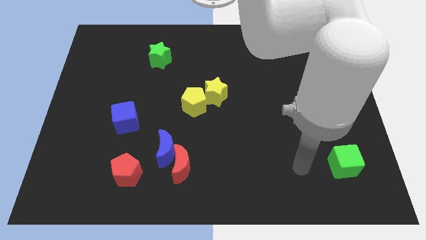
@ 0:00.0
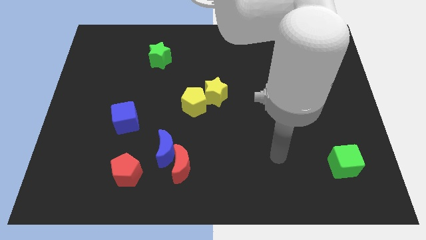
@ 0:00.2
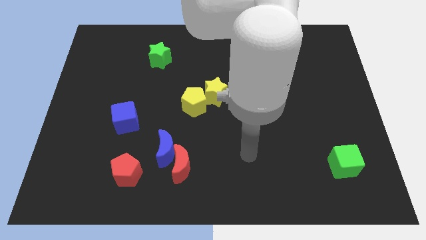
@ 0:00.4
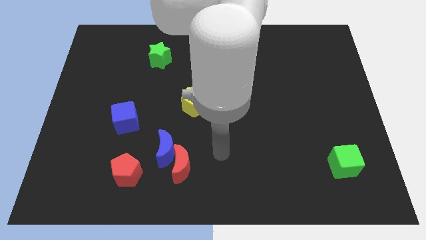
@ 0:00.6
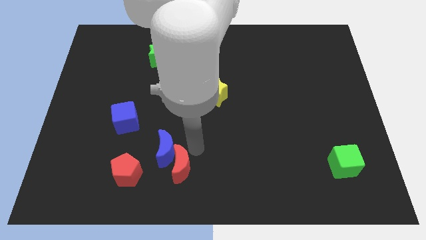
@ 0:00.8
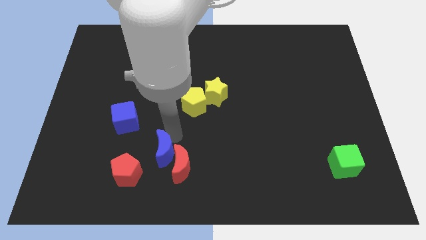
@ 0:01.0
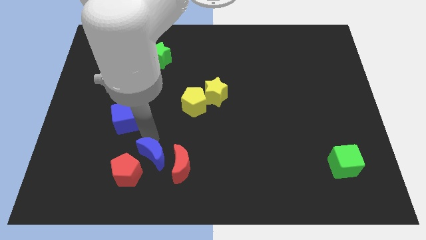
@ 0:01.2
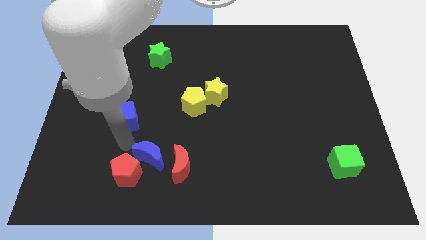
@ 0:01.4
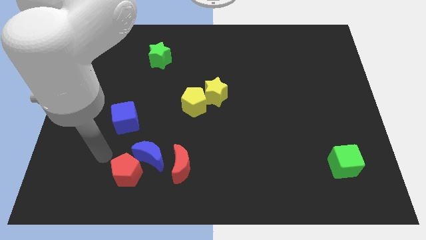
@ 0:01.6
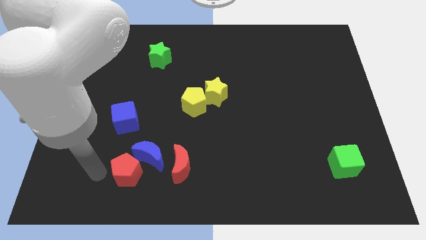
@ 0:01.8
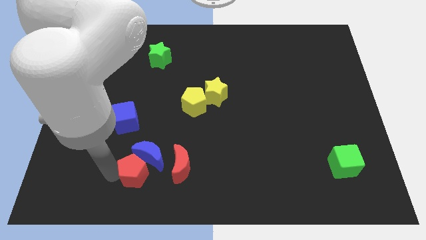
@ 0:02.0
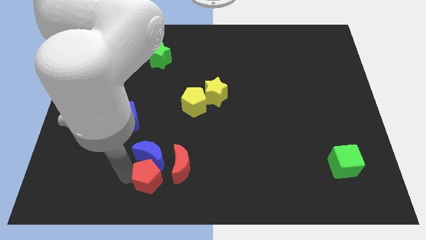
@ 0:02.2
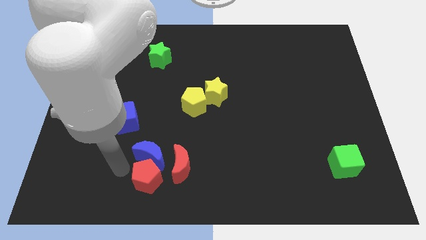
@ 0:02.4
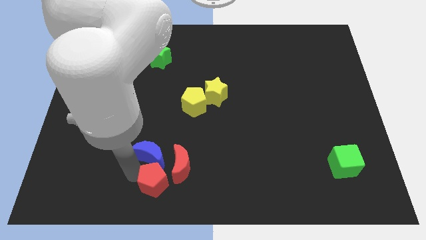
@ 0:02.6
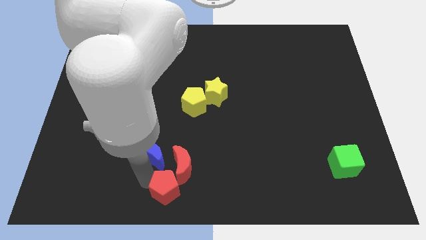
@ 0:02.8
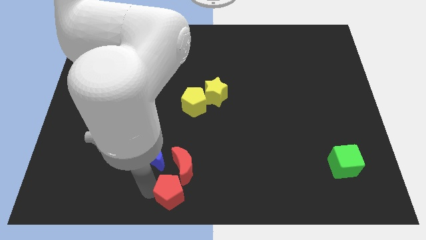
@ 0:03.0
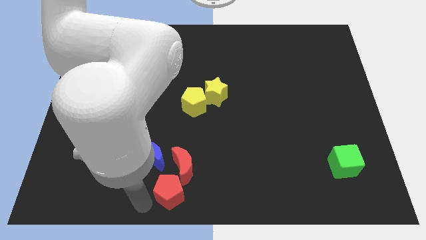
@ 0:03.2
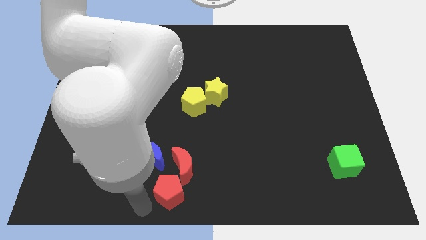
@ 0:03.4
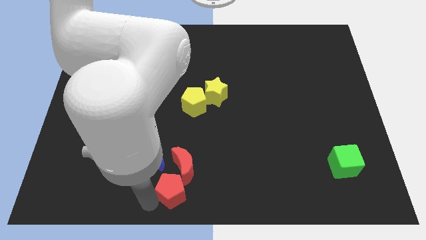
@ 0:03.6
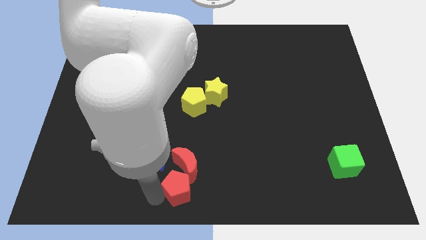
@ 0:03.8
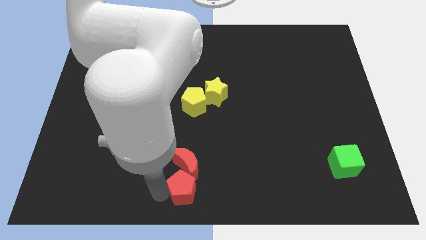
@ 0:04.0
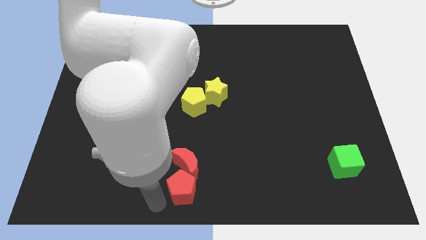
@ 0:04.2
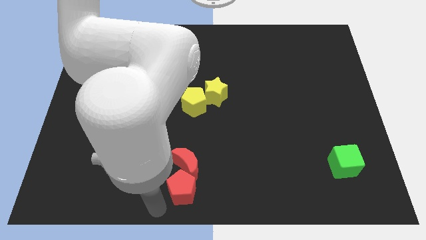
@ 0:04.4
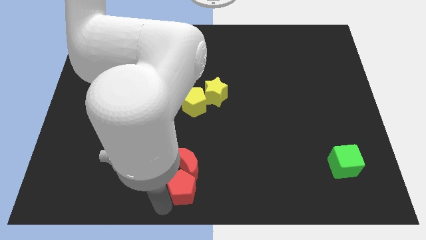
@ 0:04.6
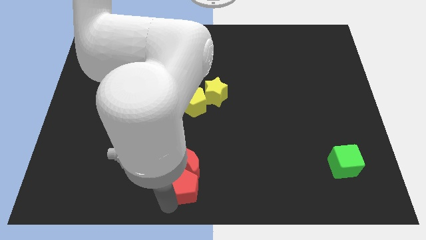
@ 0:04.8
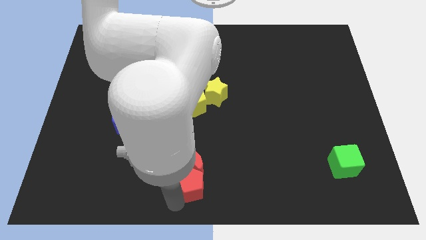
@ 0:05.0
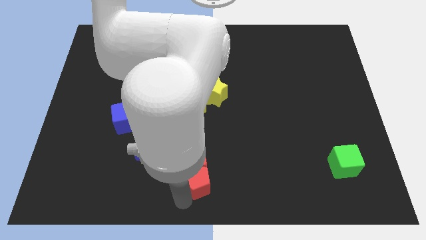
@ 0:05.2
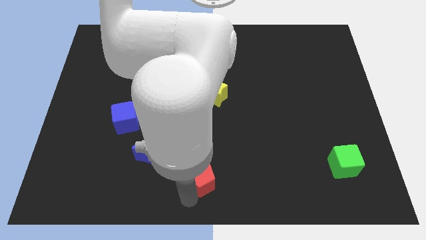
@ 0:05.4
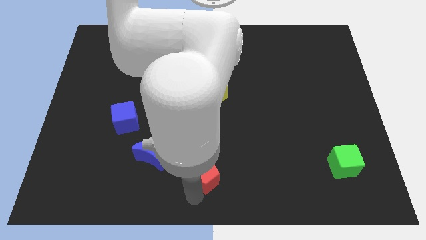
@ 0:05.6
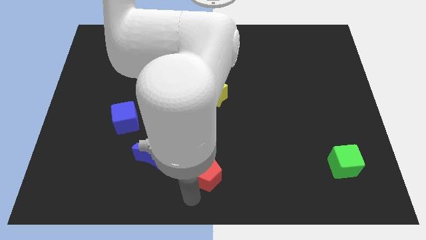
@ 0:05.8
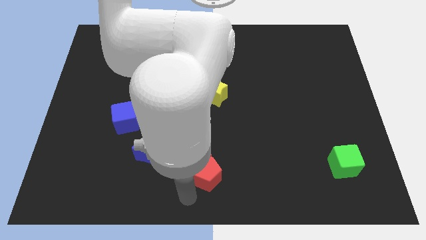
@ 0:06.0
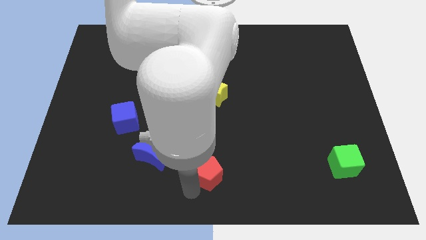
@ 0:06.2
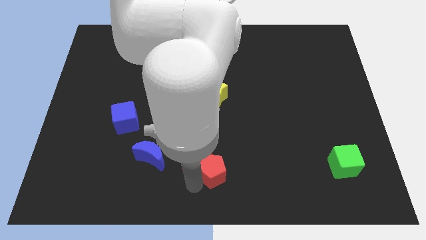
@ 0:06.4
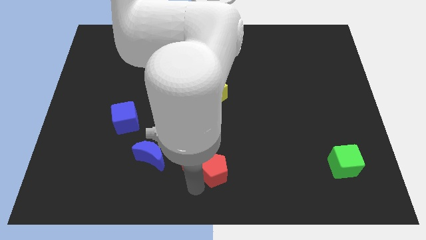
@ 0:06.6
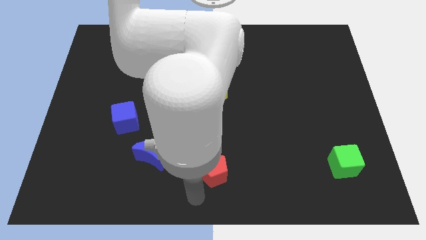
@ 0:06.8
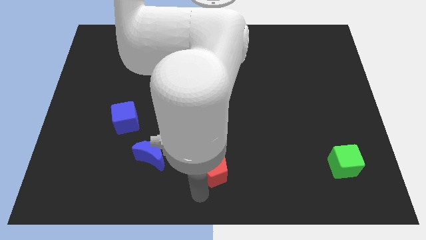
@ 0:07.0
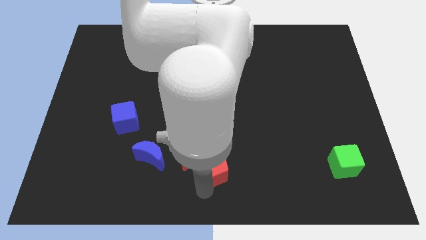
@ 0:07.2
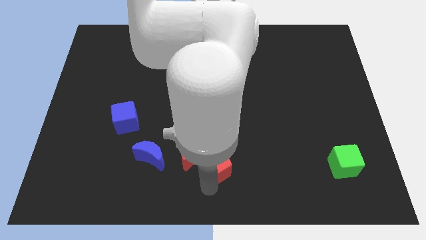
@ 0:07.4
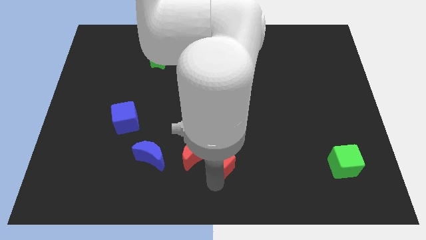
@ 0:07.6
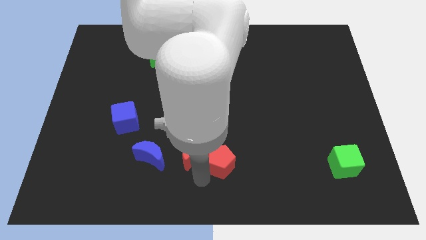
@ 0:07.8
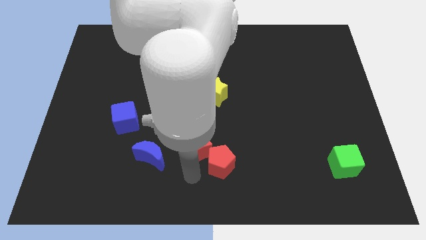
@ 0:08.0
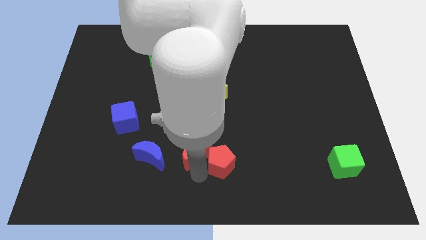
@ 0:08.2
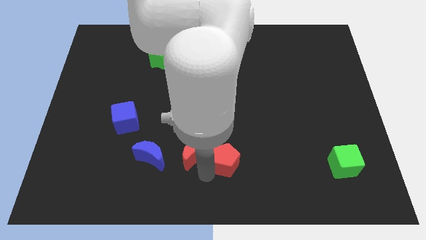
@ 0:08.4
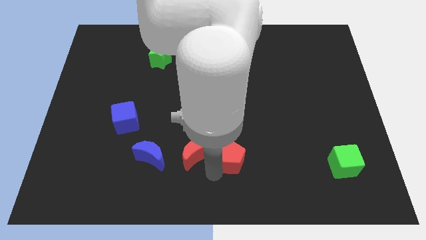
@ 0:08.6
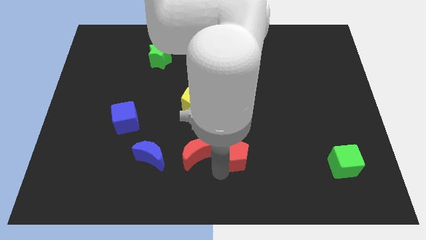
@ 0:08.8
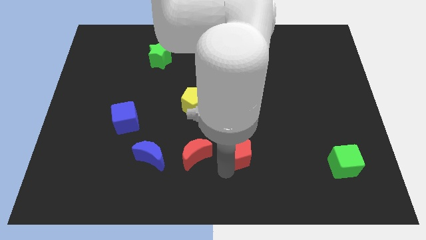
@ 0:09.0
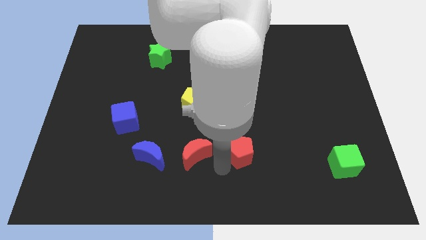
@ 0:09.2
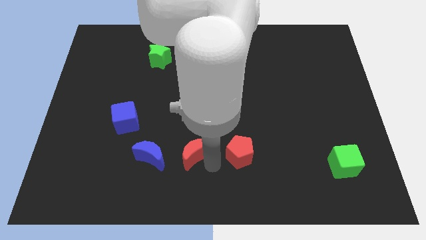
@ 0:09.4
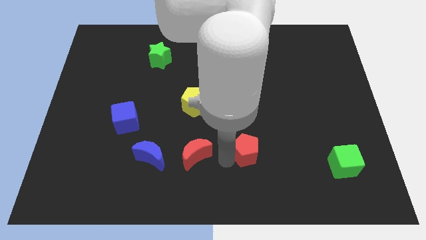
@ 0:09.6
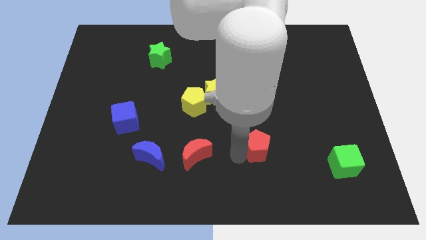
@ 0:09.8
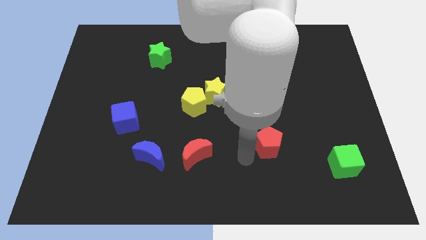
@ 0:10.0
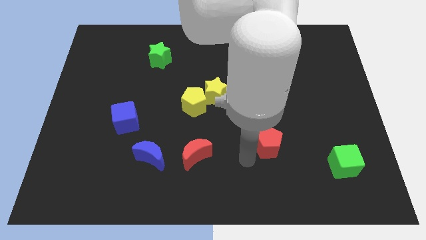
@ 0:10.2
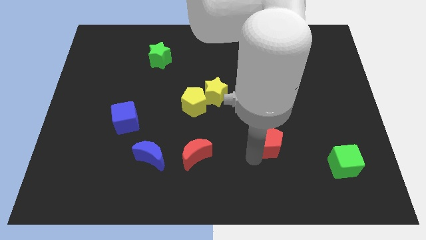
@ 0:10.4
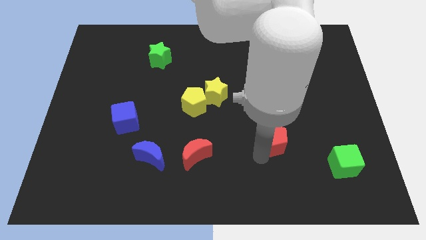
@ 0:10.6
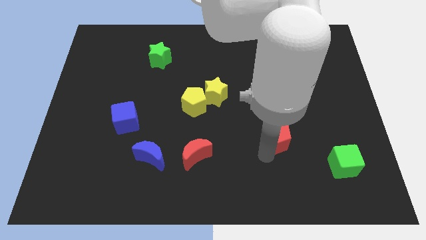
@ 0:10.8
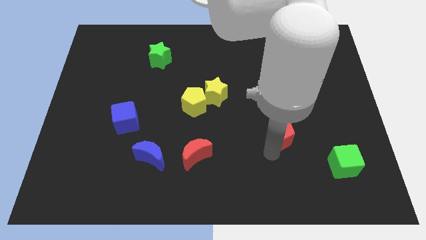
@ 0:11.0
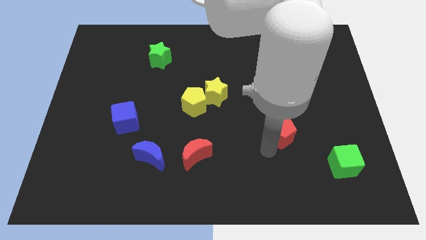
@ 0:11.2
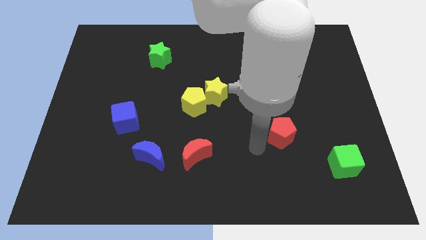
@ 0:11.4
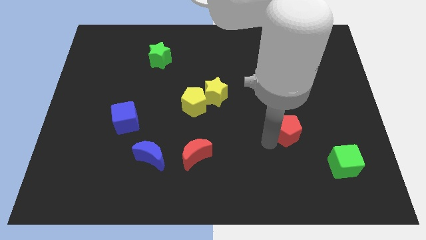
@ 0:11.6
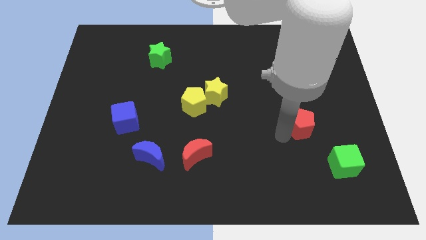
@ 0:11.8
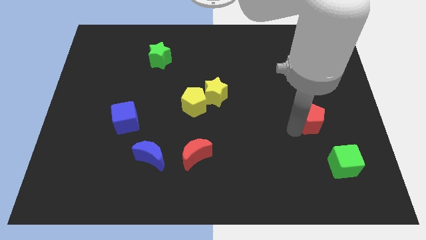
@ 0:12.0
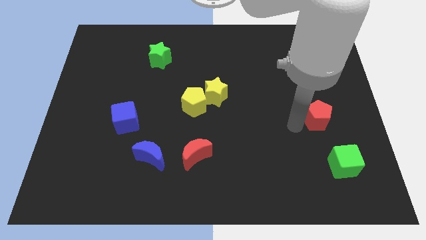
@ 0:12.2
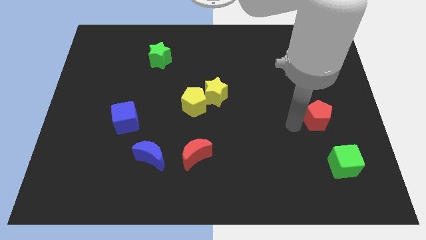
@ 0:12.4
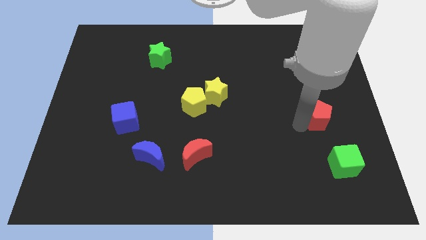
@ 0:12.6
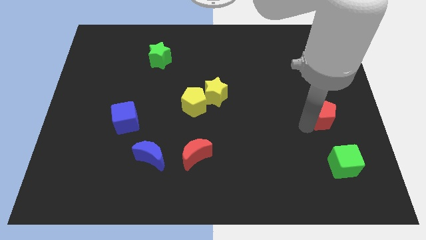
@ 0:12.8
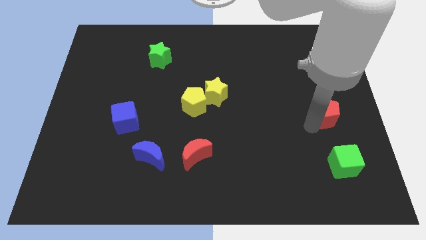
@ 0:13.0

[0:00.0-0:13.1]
slide the red pentagon to the right side

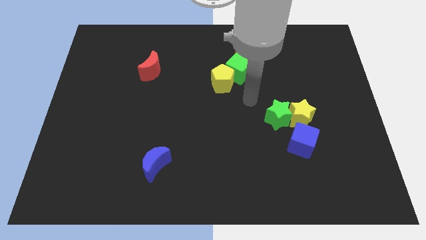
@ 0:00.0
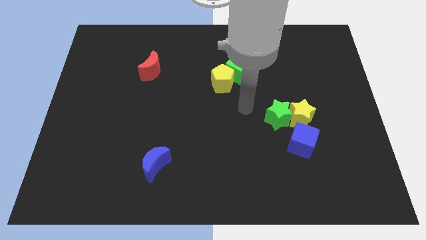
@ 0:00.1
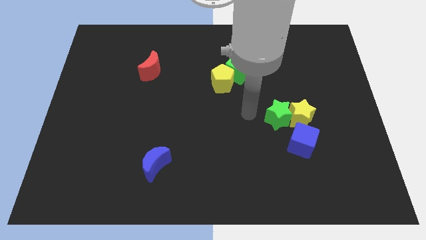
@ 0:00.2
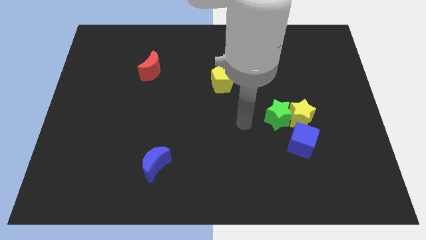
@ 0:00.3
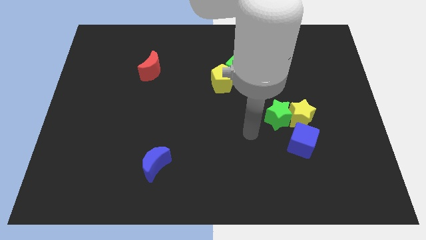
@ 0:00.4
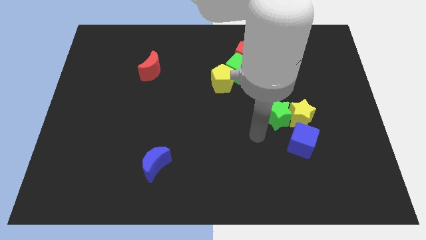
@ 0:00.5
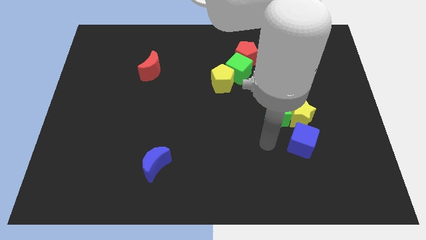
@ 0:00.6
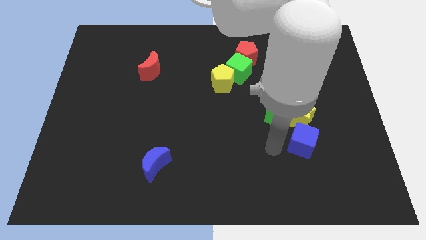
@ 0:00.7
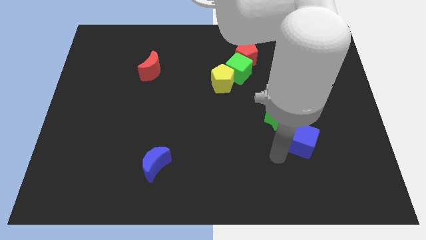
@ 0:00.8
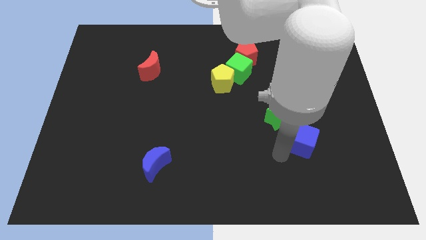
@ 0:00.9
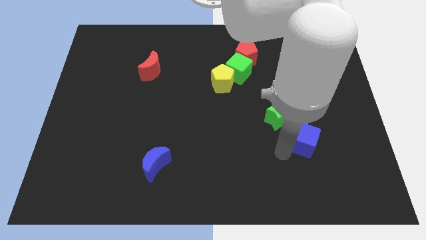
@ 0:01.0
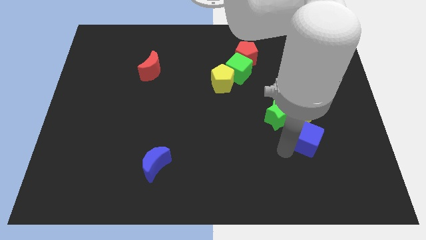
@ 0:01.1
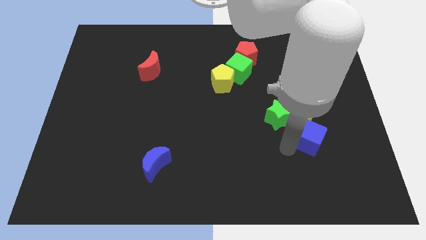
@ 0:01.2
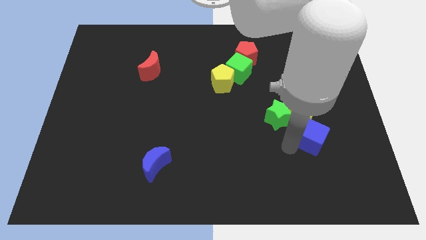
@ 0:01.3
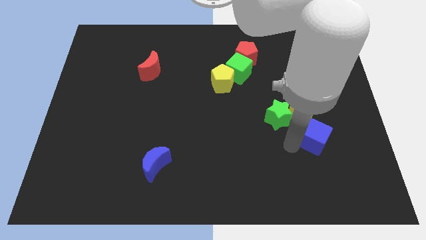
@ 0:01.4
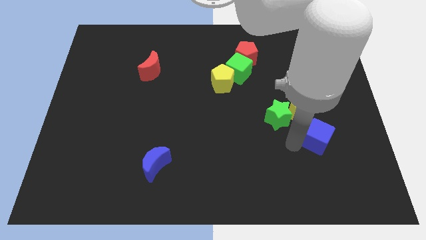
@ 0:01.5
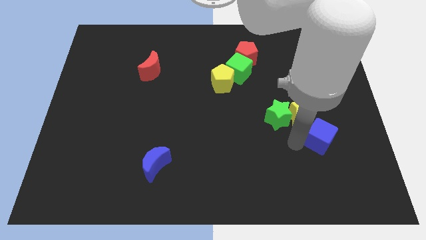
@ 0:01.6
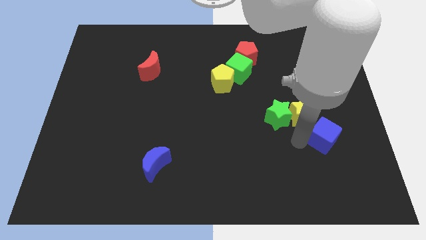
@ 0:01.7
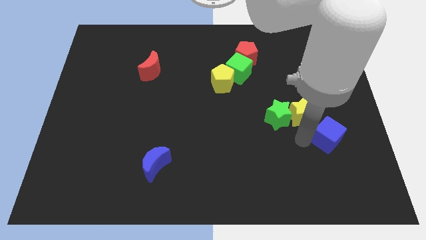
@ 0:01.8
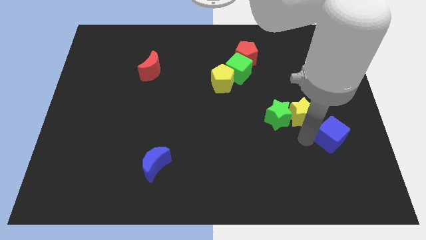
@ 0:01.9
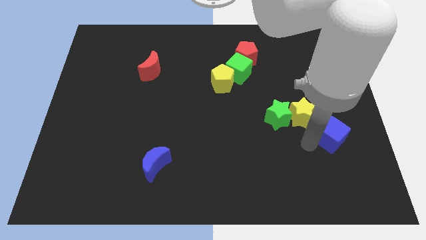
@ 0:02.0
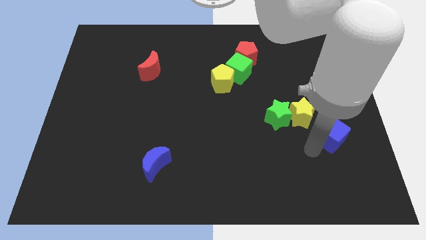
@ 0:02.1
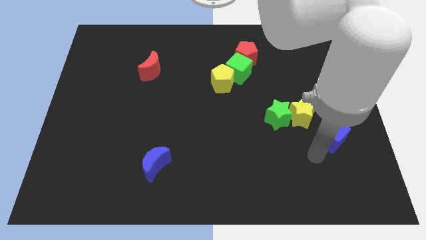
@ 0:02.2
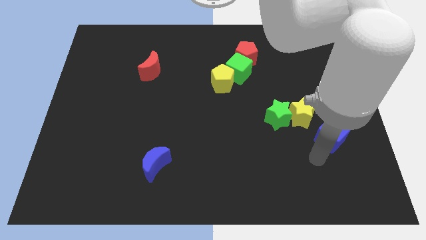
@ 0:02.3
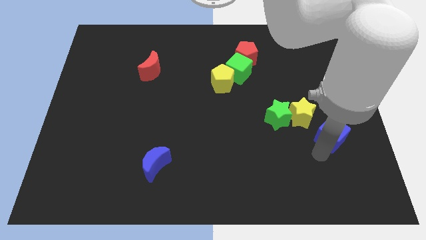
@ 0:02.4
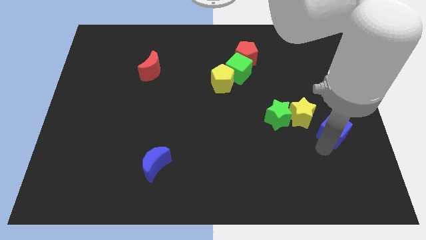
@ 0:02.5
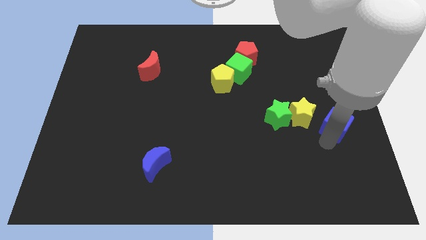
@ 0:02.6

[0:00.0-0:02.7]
put the blue cube to the center right
